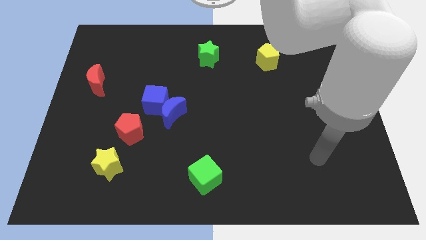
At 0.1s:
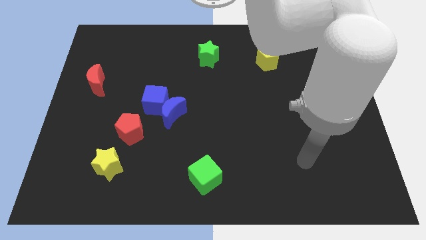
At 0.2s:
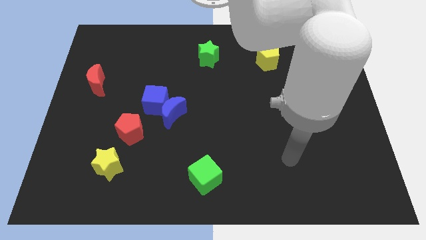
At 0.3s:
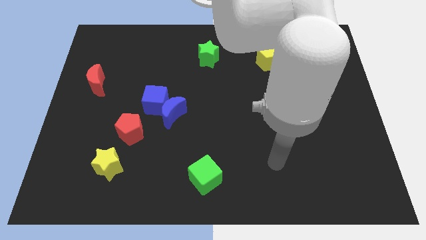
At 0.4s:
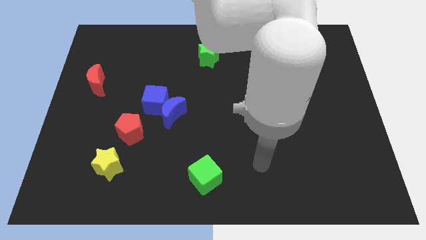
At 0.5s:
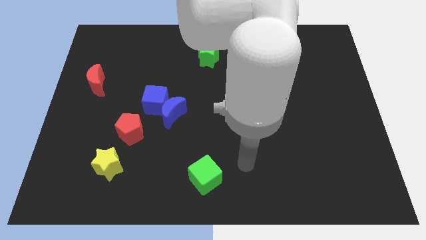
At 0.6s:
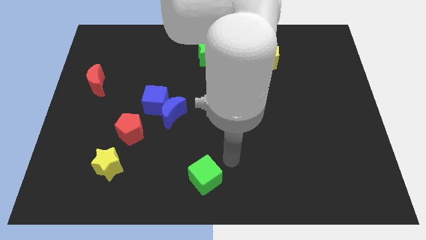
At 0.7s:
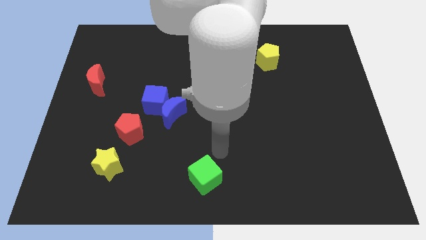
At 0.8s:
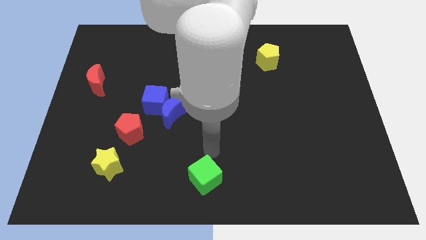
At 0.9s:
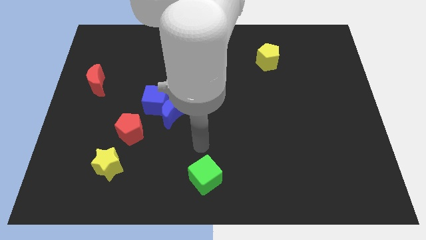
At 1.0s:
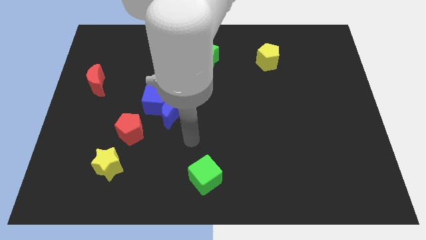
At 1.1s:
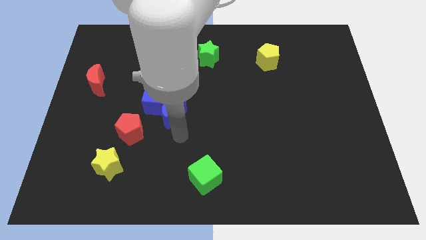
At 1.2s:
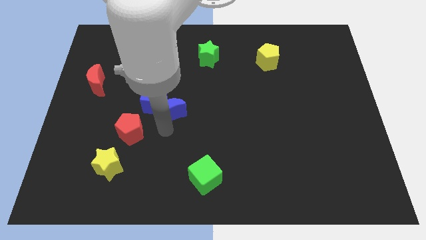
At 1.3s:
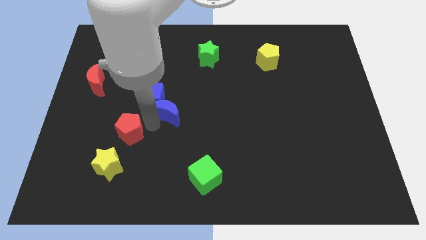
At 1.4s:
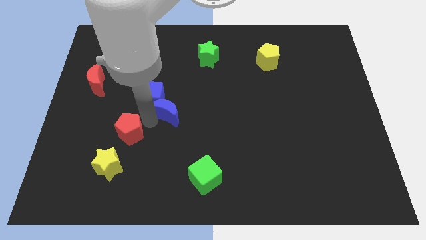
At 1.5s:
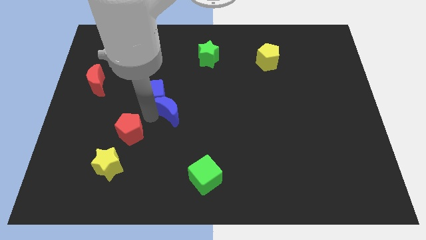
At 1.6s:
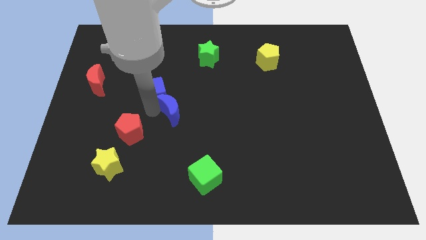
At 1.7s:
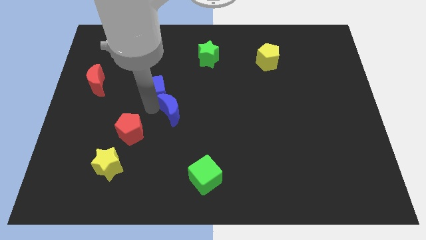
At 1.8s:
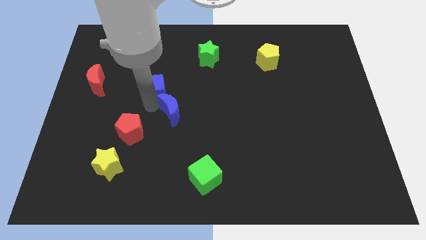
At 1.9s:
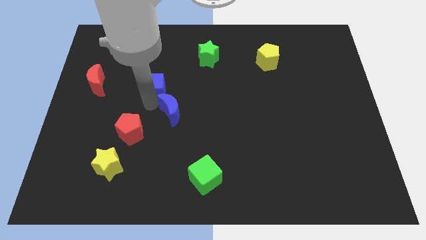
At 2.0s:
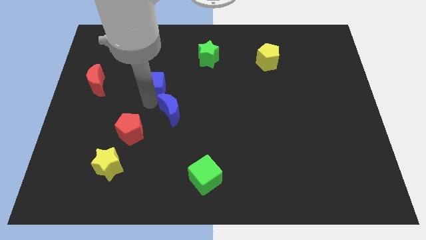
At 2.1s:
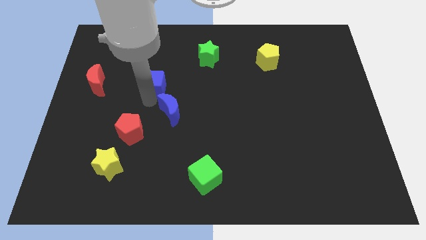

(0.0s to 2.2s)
pull the blue cube apart from the blue moon and red pentagon

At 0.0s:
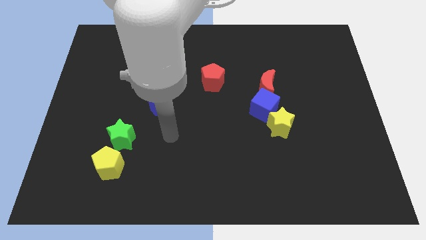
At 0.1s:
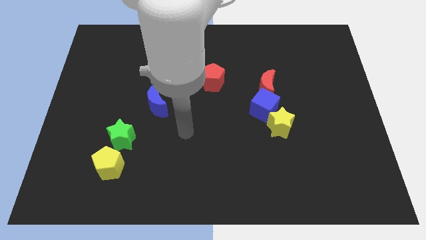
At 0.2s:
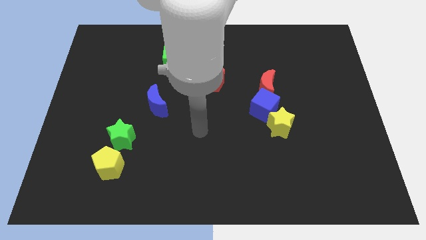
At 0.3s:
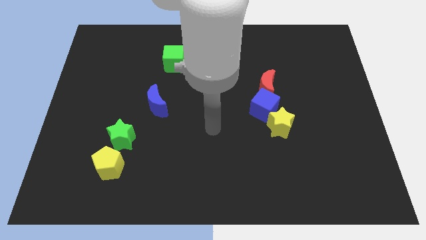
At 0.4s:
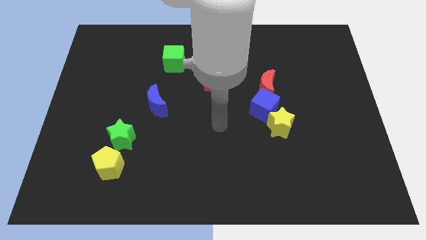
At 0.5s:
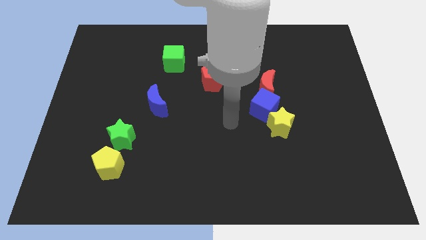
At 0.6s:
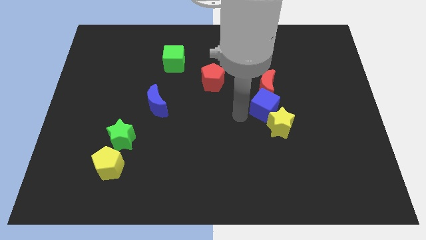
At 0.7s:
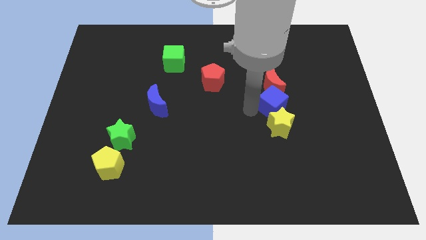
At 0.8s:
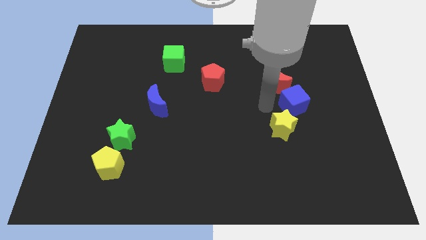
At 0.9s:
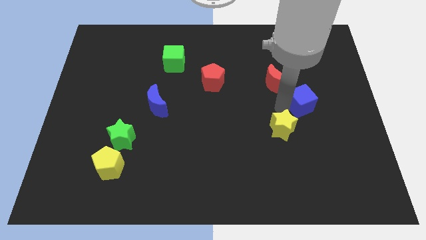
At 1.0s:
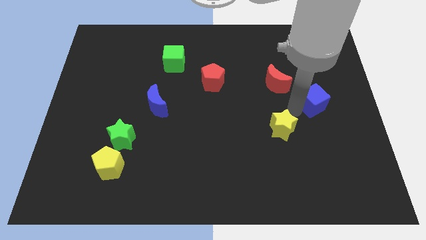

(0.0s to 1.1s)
move the yellow star away from the blue cube

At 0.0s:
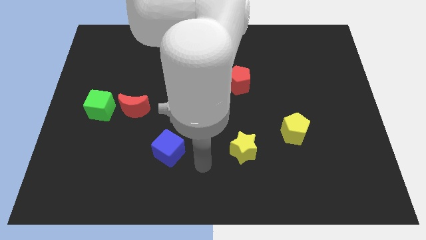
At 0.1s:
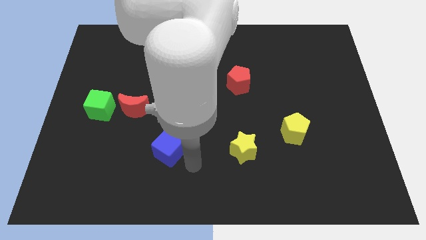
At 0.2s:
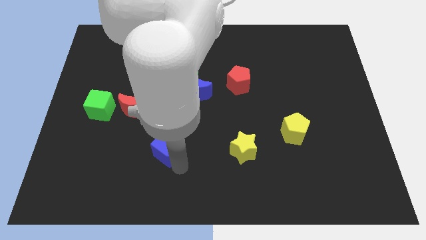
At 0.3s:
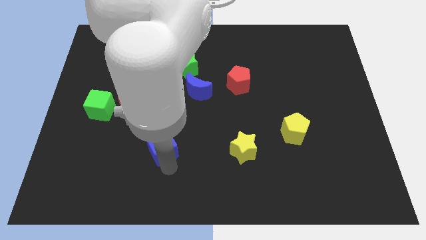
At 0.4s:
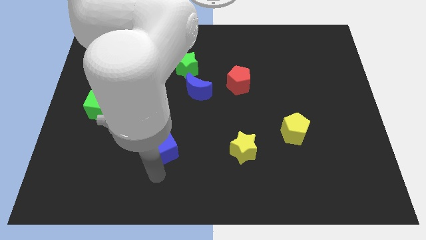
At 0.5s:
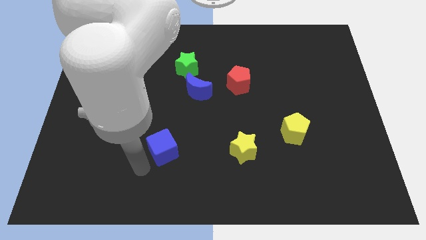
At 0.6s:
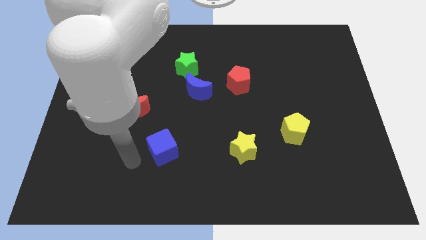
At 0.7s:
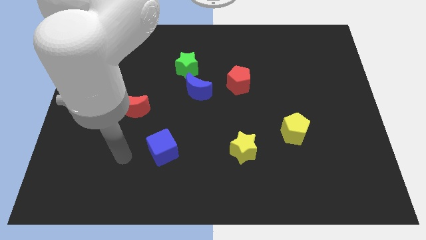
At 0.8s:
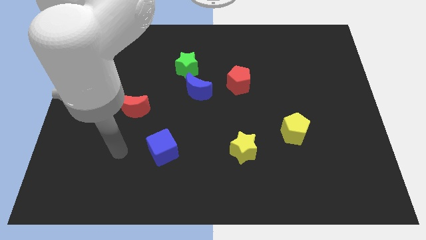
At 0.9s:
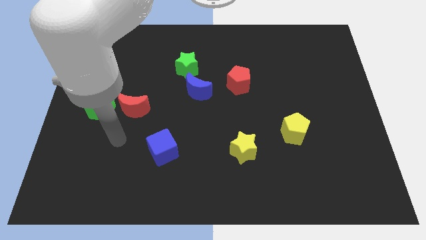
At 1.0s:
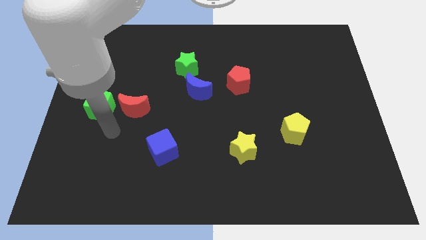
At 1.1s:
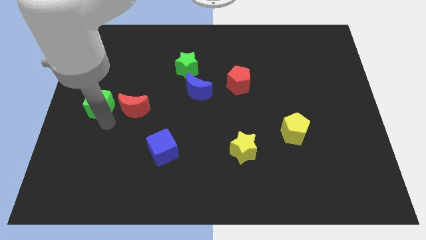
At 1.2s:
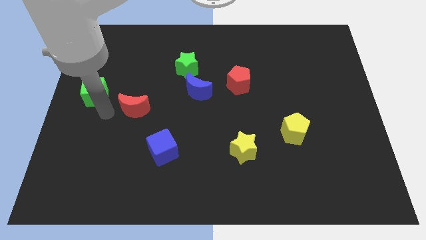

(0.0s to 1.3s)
separate the red moon from the green cube

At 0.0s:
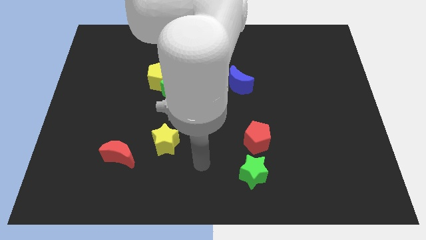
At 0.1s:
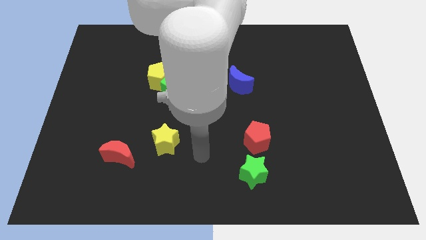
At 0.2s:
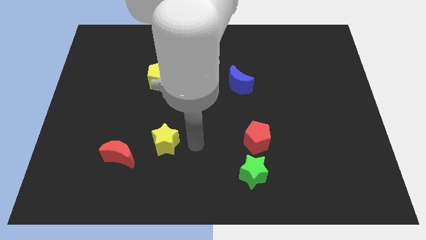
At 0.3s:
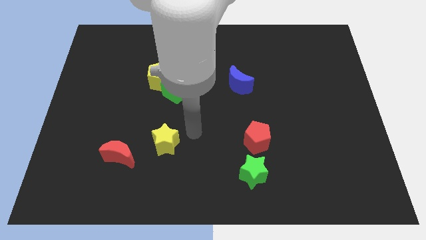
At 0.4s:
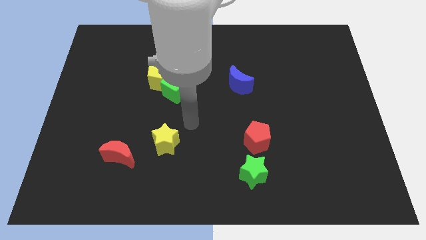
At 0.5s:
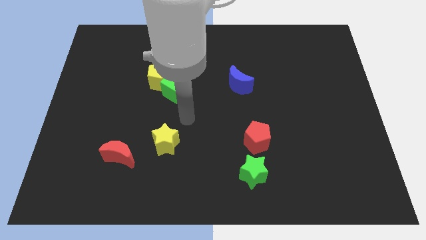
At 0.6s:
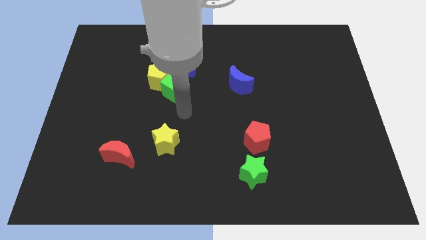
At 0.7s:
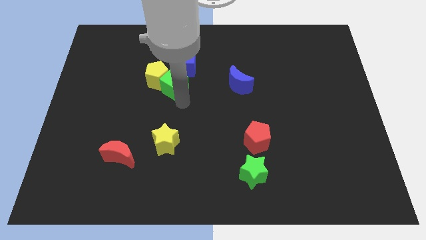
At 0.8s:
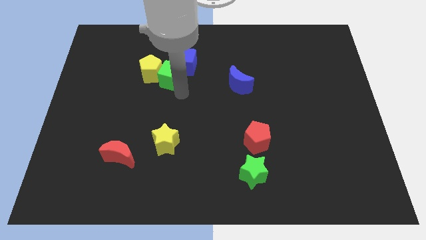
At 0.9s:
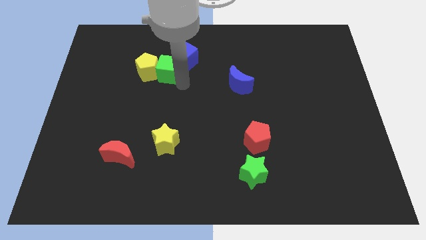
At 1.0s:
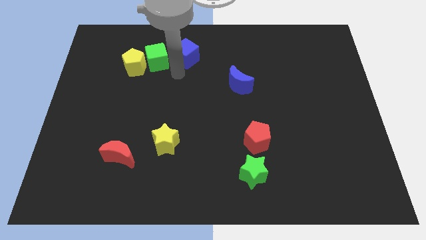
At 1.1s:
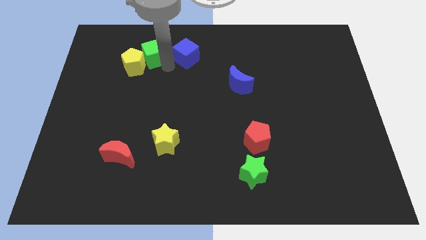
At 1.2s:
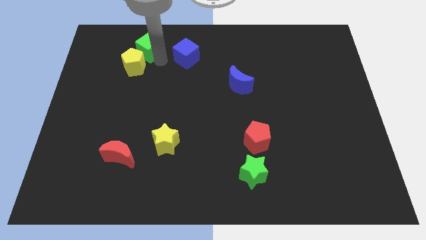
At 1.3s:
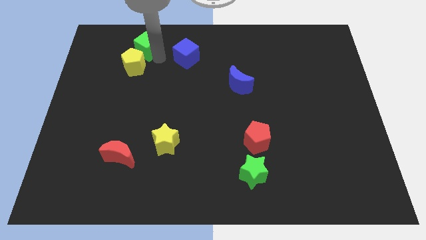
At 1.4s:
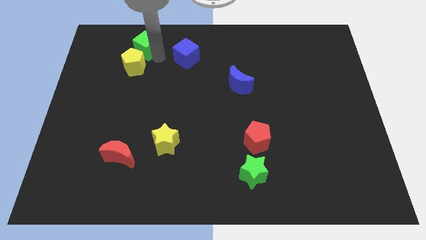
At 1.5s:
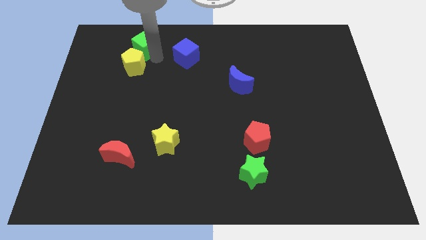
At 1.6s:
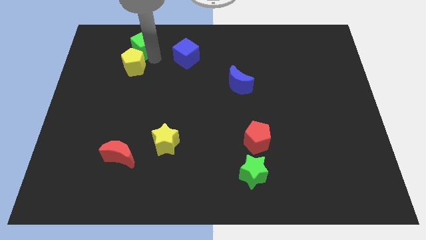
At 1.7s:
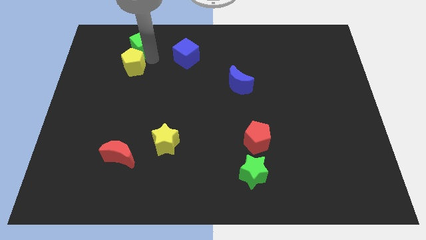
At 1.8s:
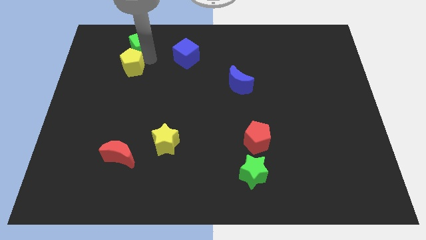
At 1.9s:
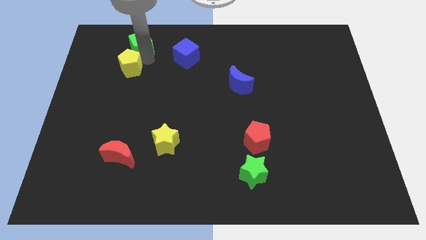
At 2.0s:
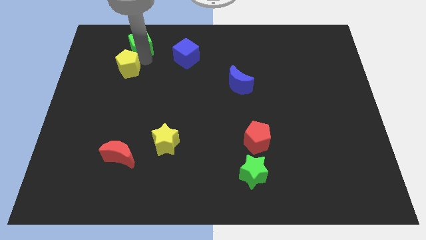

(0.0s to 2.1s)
separate the yellow pentagon from the green cube and blue cube

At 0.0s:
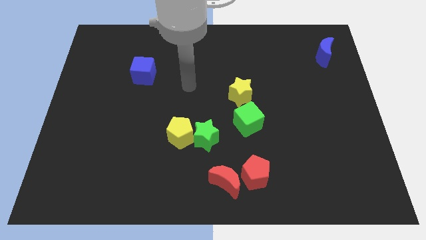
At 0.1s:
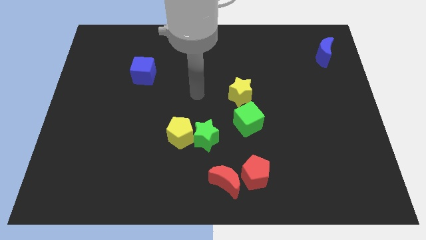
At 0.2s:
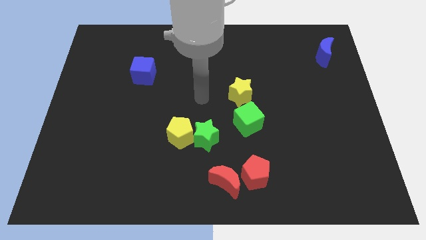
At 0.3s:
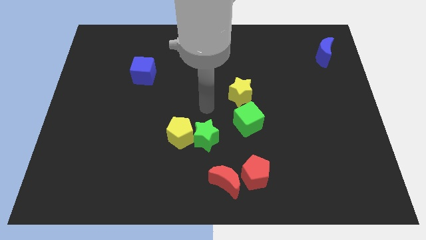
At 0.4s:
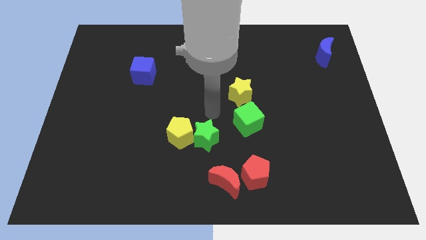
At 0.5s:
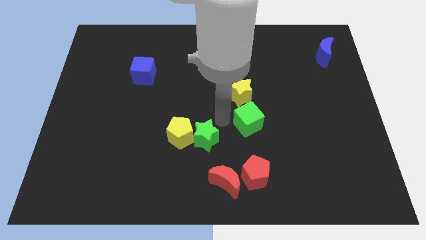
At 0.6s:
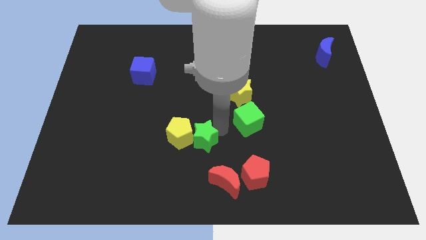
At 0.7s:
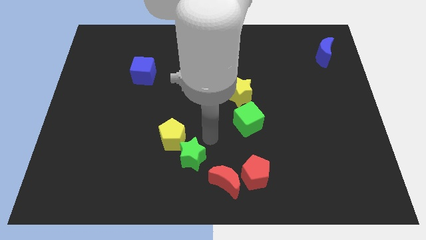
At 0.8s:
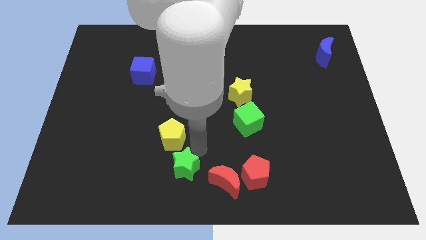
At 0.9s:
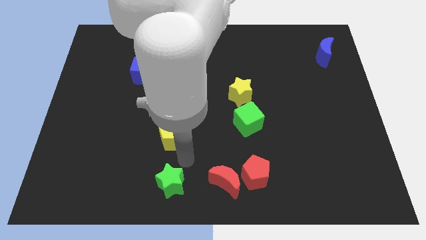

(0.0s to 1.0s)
pull the yellow pentagon apart from the green star

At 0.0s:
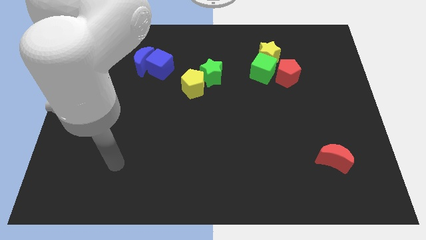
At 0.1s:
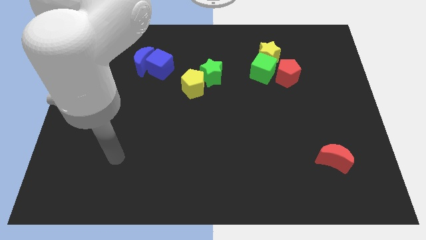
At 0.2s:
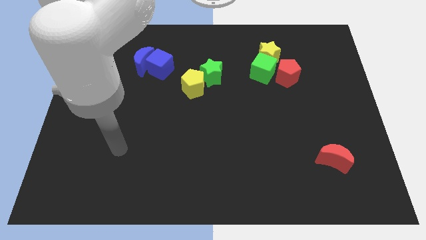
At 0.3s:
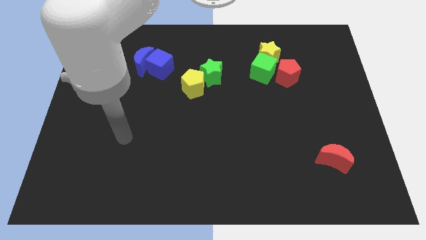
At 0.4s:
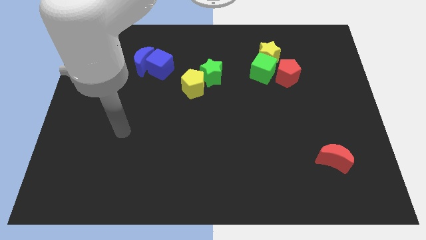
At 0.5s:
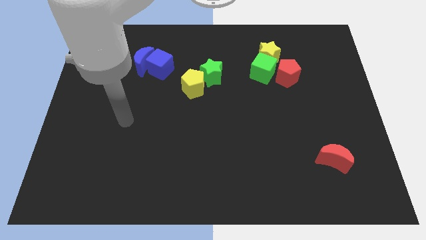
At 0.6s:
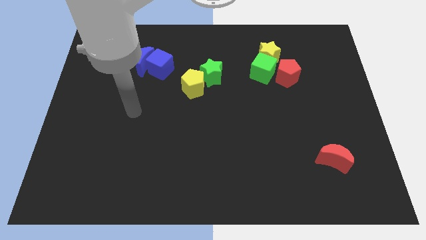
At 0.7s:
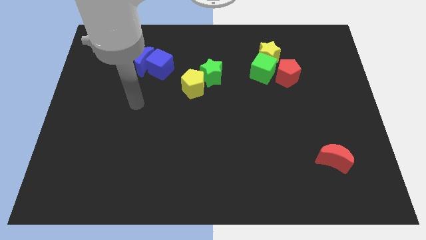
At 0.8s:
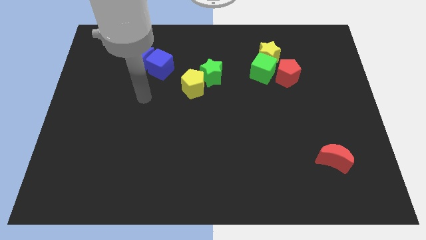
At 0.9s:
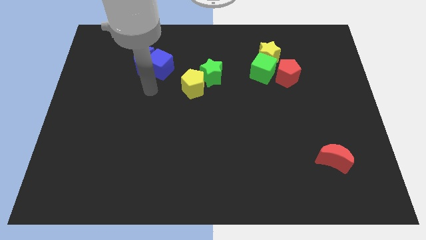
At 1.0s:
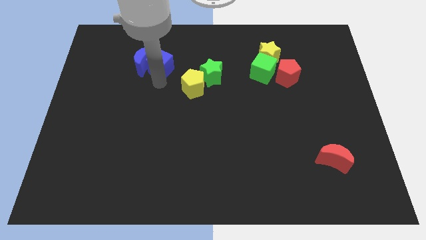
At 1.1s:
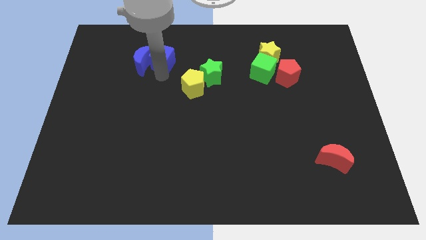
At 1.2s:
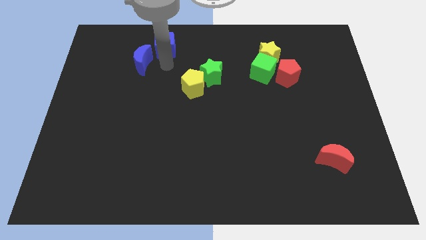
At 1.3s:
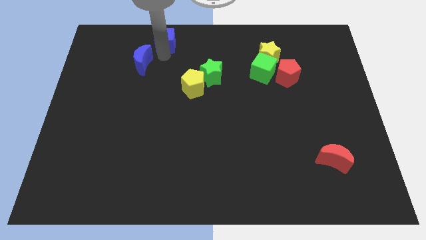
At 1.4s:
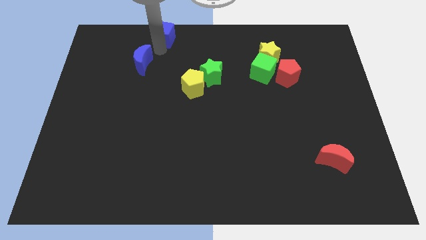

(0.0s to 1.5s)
separate the blue moon from the blue cube
